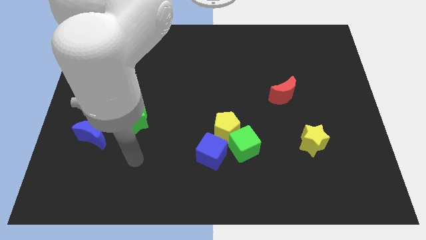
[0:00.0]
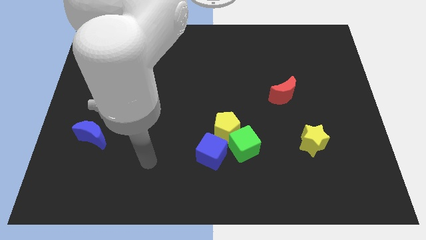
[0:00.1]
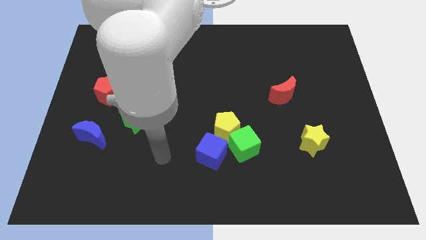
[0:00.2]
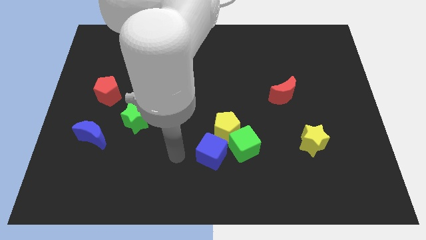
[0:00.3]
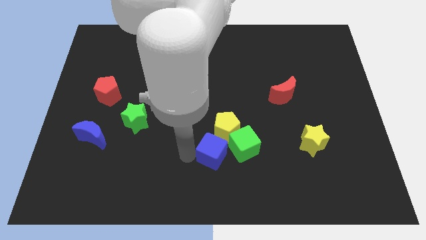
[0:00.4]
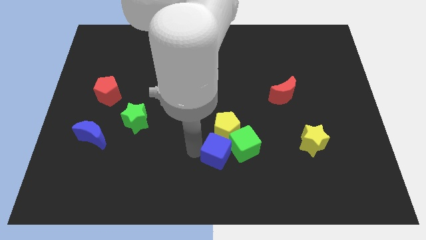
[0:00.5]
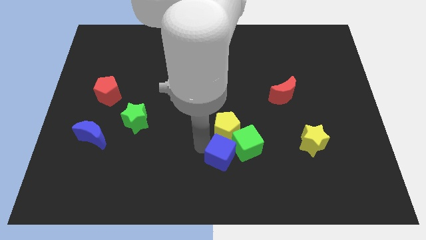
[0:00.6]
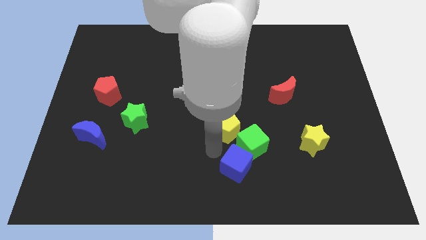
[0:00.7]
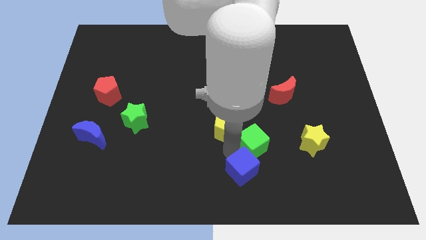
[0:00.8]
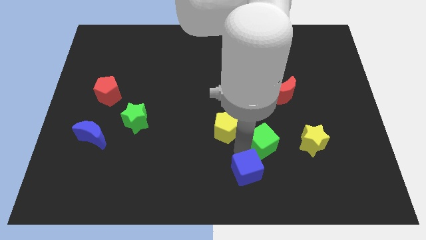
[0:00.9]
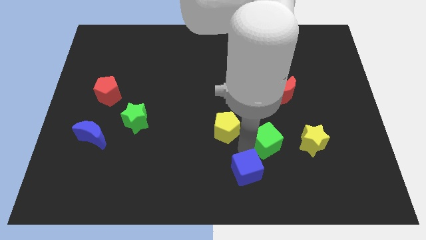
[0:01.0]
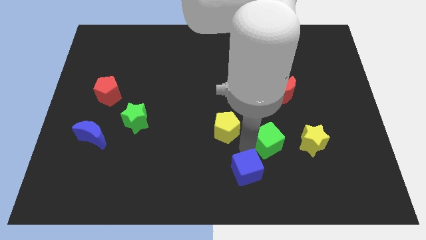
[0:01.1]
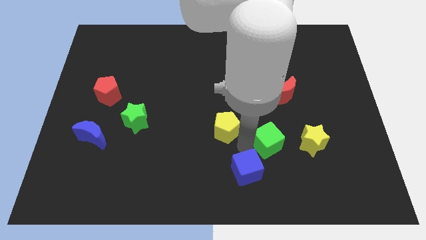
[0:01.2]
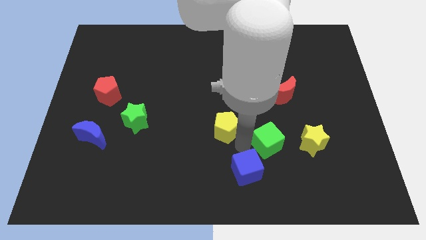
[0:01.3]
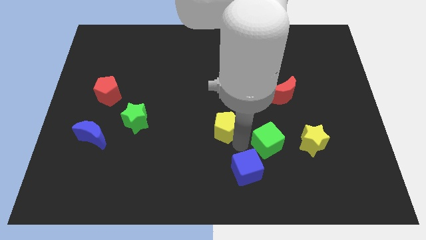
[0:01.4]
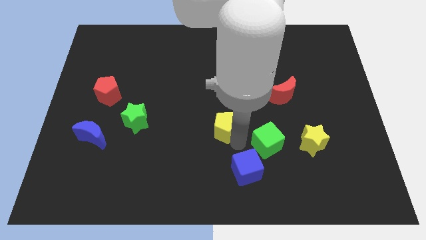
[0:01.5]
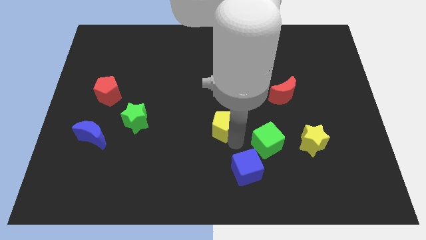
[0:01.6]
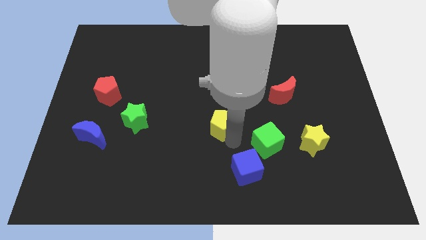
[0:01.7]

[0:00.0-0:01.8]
separate the yellow pentagon from the green cube and blue cube

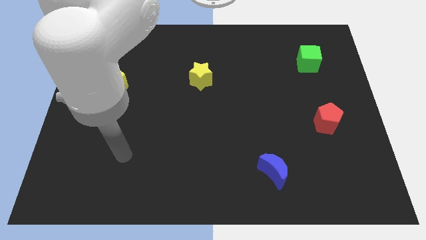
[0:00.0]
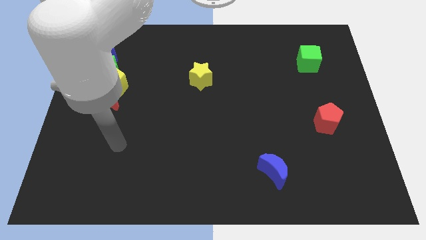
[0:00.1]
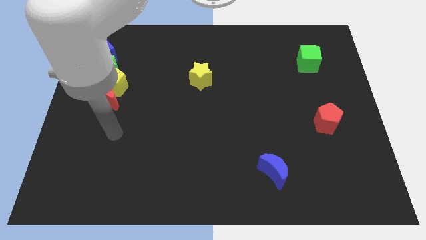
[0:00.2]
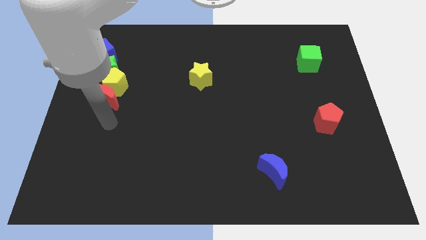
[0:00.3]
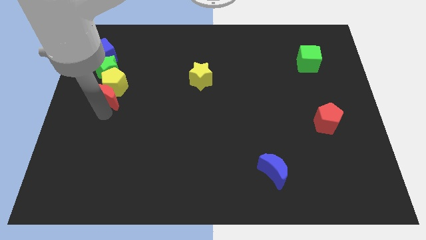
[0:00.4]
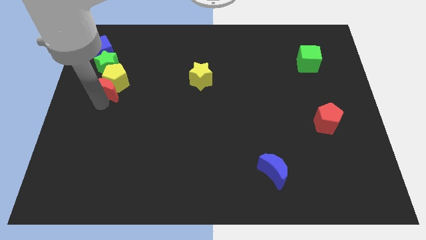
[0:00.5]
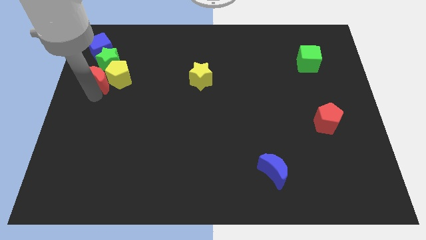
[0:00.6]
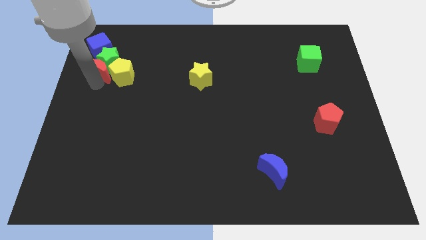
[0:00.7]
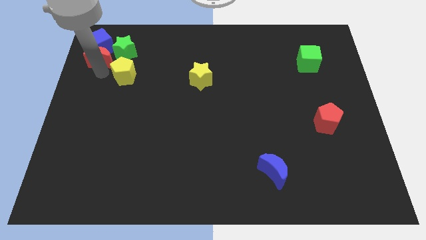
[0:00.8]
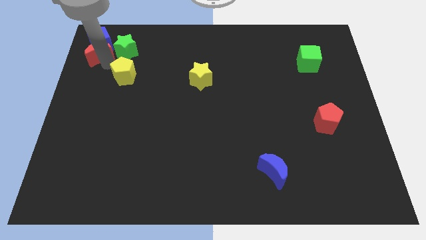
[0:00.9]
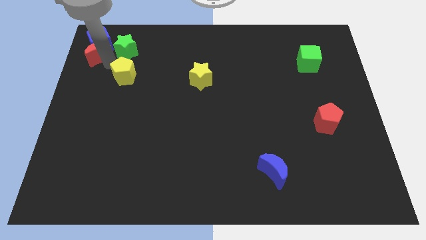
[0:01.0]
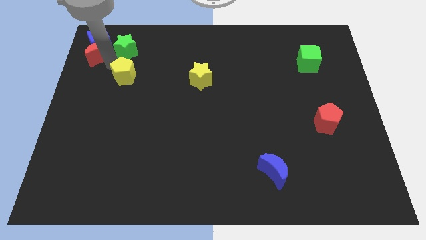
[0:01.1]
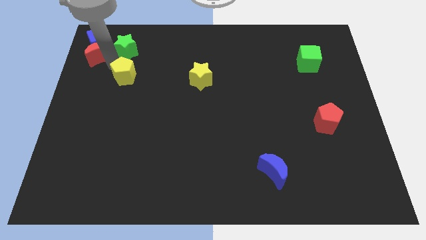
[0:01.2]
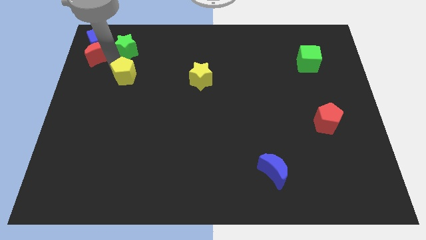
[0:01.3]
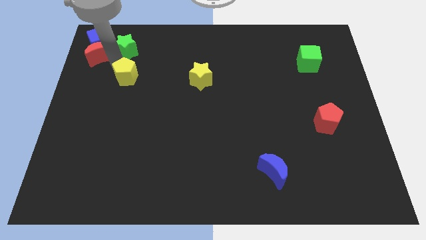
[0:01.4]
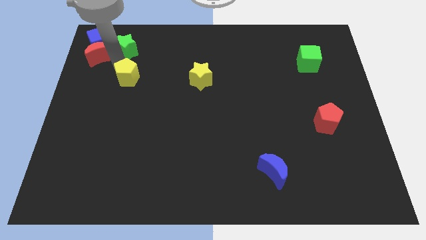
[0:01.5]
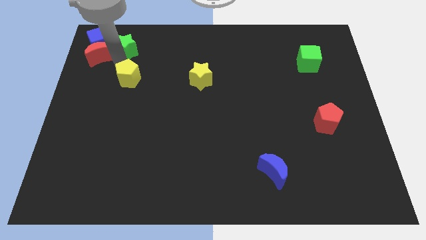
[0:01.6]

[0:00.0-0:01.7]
pull the yellow pentagon apart from the red moon and green star

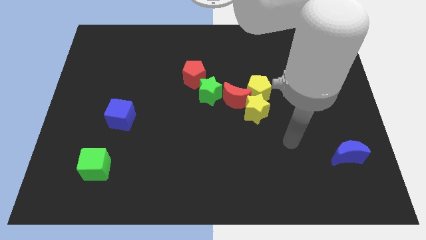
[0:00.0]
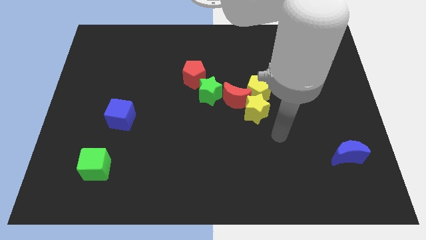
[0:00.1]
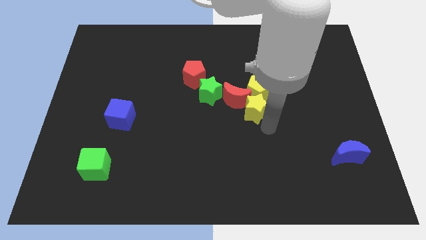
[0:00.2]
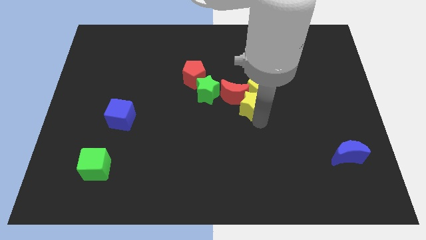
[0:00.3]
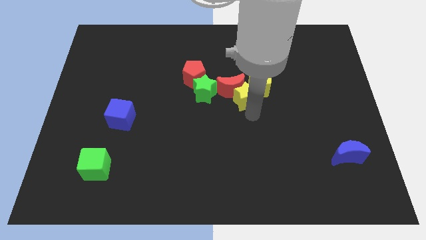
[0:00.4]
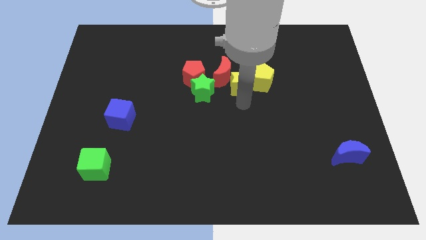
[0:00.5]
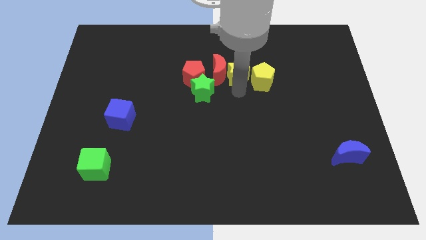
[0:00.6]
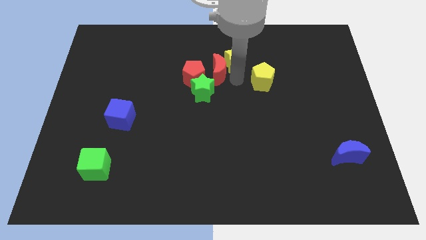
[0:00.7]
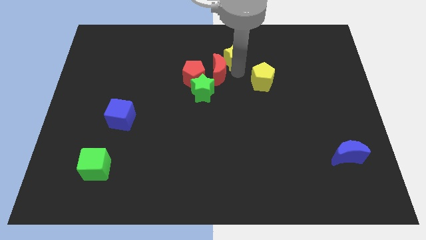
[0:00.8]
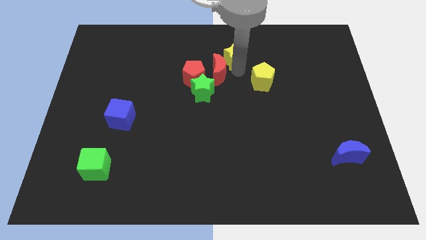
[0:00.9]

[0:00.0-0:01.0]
move the yellow pentagon away from the red moon and yellow star

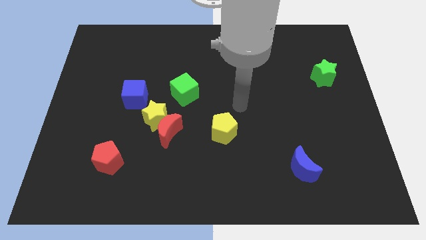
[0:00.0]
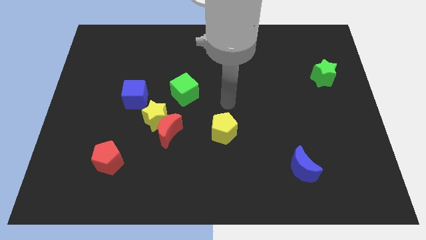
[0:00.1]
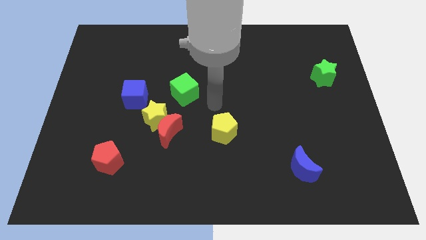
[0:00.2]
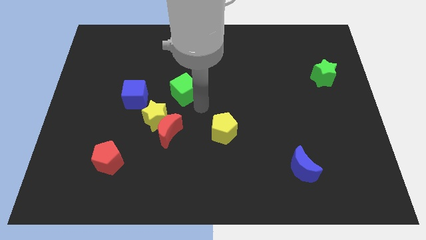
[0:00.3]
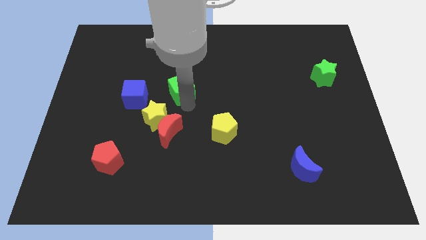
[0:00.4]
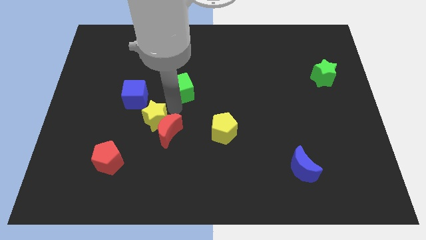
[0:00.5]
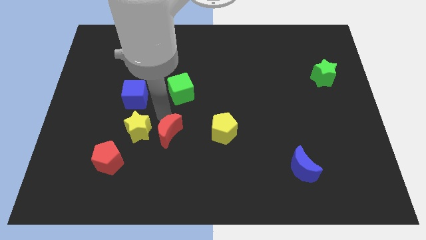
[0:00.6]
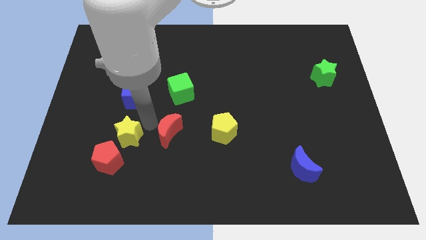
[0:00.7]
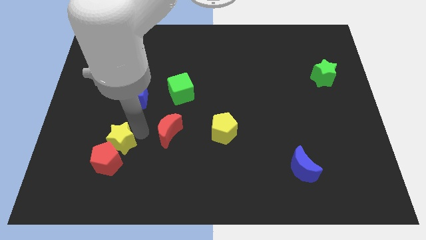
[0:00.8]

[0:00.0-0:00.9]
move the red moon away from the yellow star

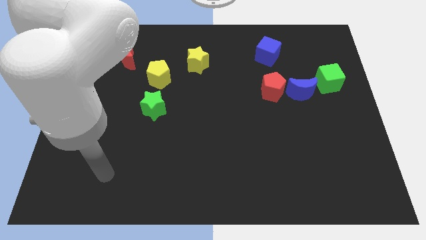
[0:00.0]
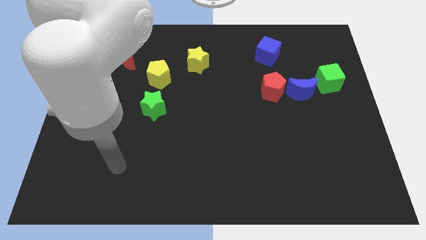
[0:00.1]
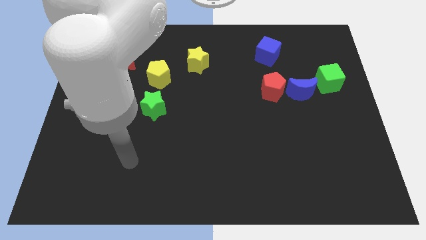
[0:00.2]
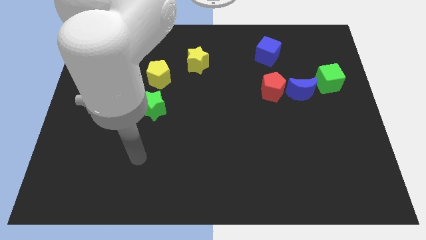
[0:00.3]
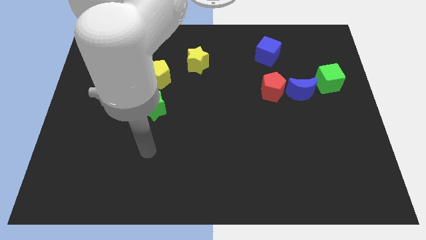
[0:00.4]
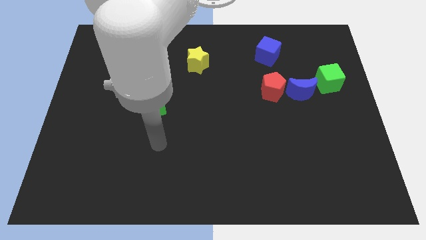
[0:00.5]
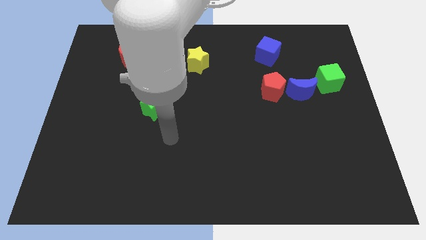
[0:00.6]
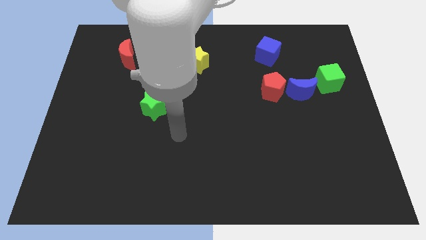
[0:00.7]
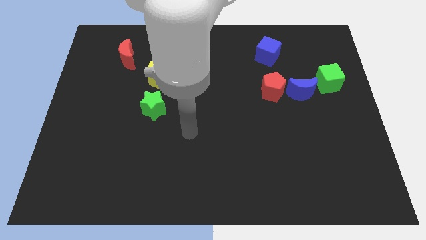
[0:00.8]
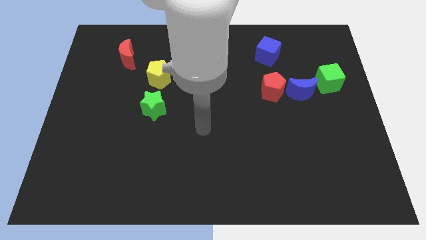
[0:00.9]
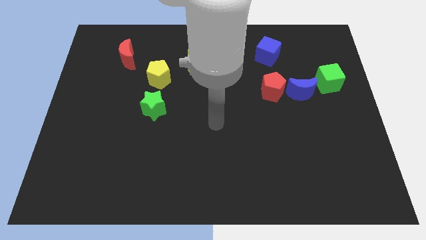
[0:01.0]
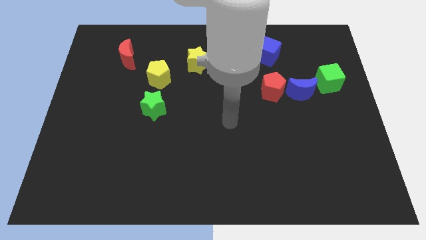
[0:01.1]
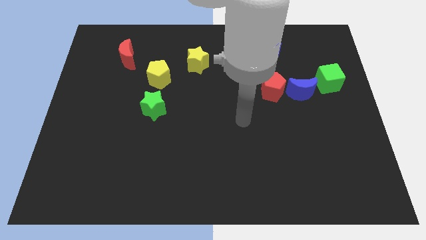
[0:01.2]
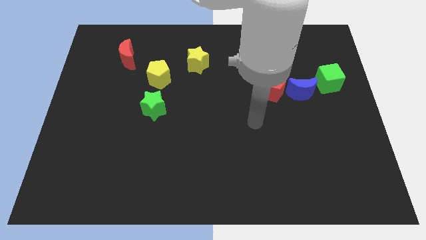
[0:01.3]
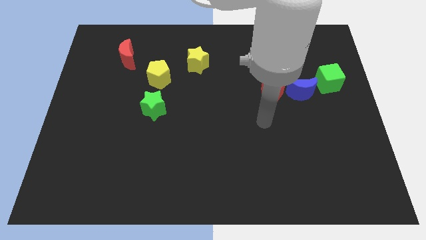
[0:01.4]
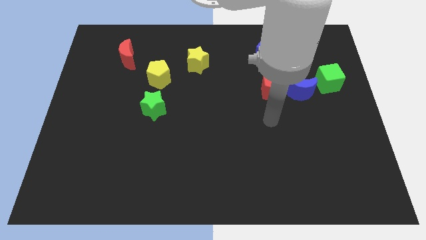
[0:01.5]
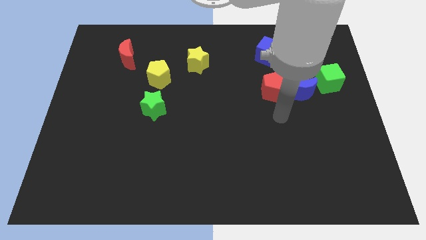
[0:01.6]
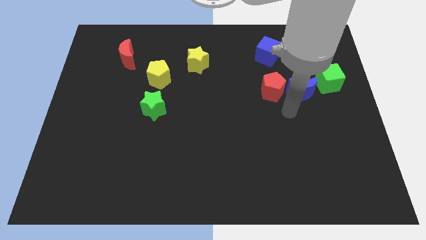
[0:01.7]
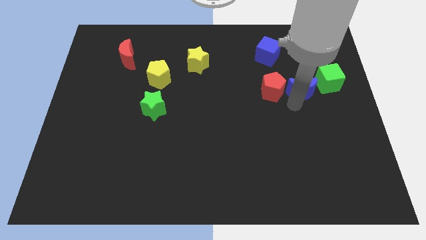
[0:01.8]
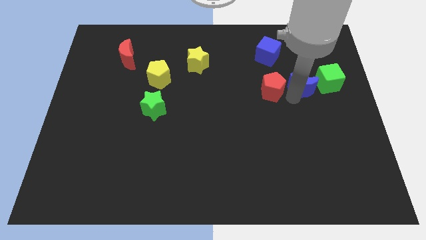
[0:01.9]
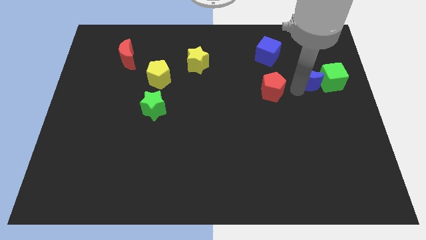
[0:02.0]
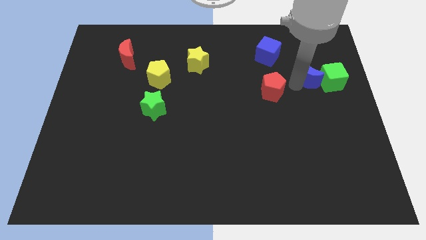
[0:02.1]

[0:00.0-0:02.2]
pull the red pentagon apart from the blue moon

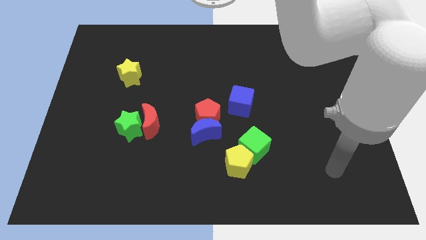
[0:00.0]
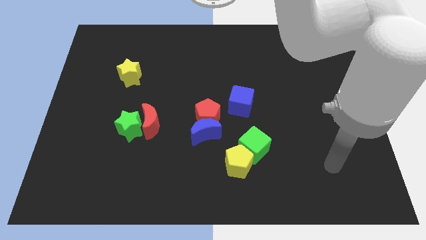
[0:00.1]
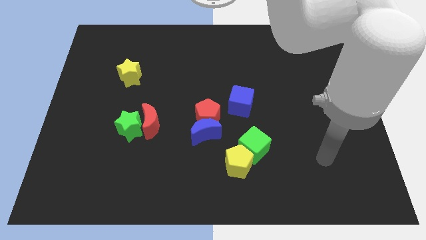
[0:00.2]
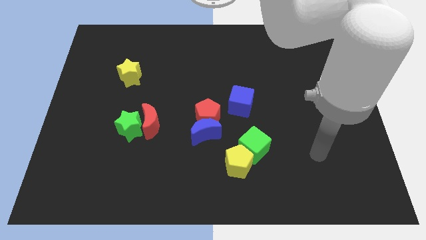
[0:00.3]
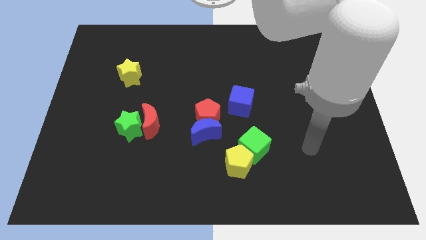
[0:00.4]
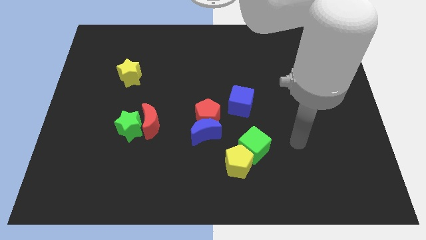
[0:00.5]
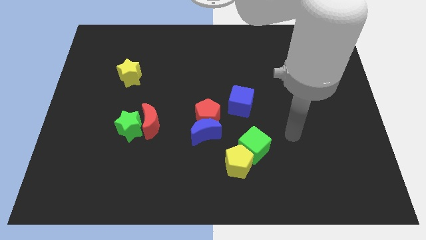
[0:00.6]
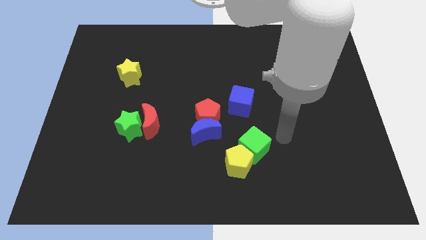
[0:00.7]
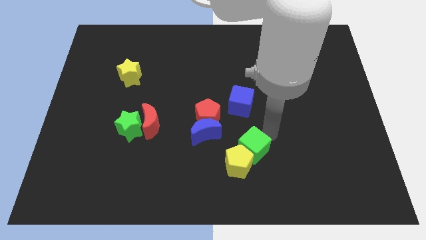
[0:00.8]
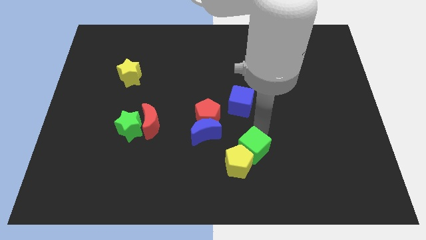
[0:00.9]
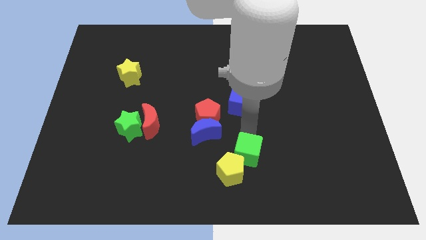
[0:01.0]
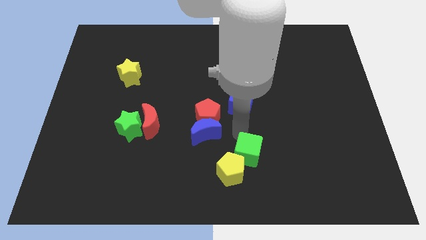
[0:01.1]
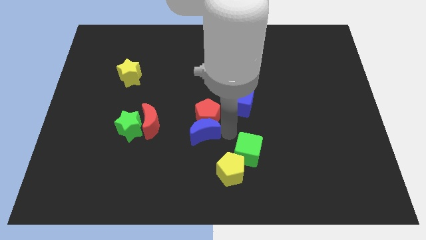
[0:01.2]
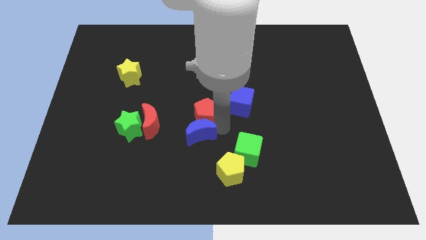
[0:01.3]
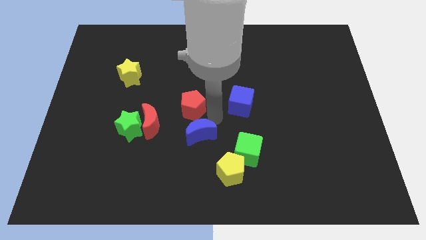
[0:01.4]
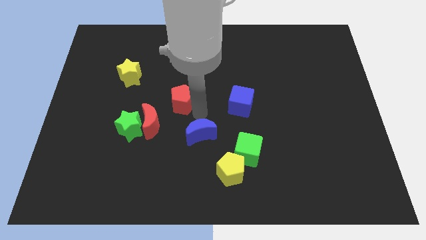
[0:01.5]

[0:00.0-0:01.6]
pull the blue moon apart from the red pentagon

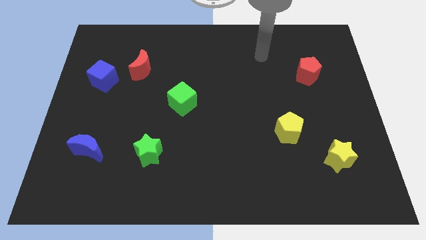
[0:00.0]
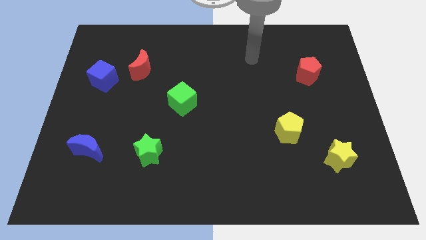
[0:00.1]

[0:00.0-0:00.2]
separate the red moon from the blue cube
